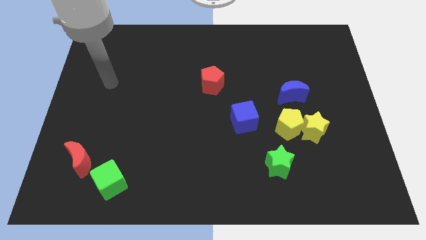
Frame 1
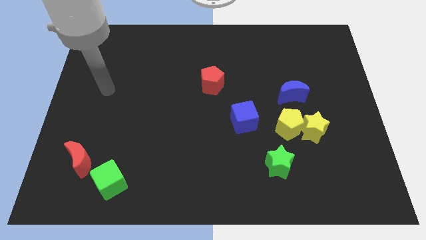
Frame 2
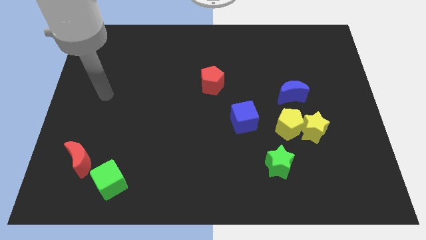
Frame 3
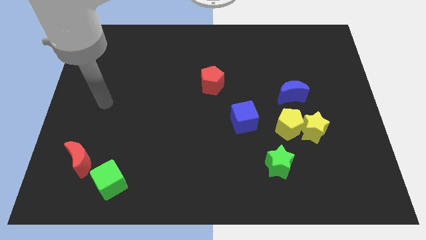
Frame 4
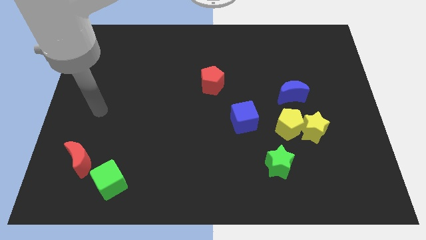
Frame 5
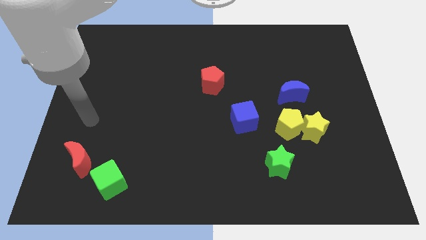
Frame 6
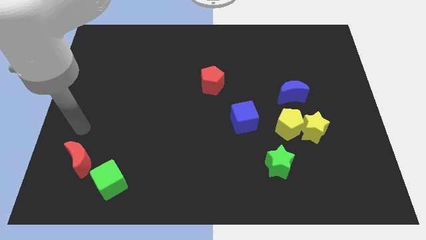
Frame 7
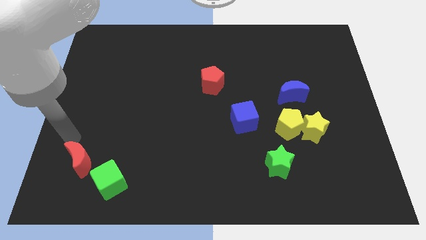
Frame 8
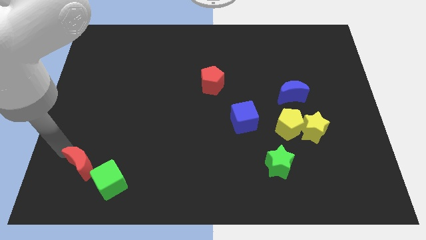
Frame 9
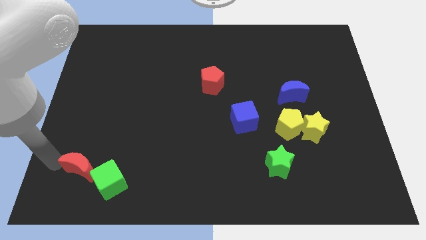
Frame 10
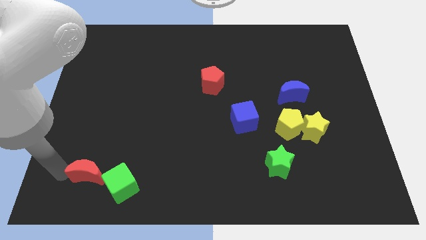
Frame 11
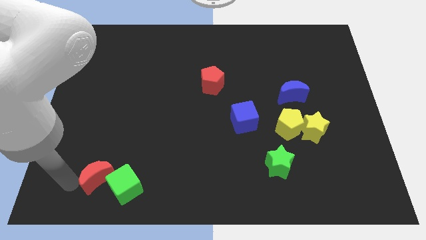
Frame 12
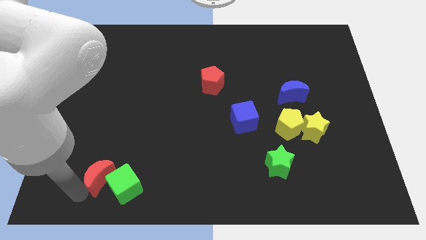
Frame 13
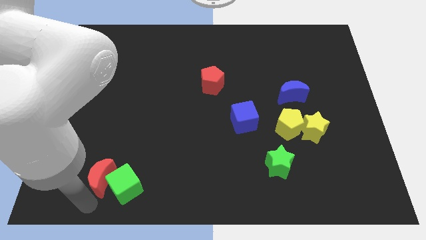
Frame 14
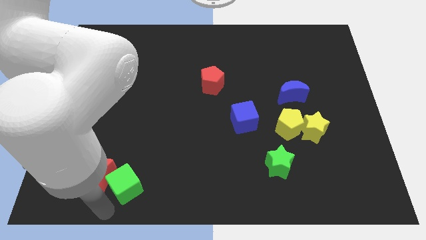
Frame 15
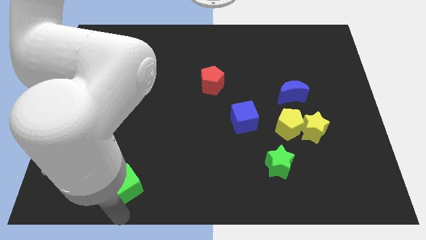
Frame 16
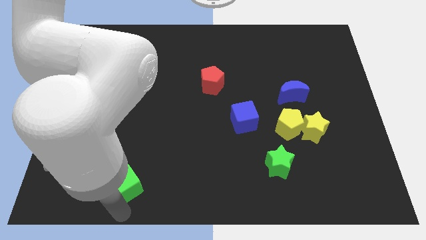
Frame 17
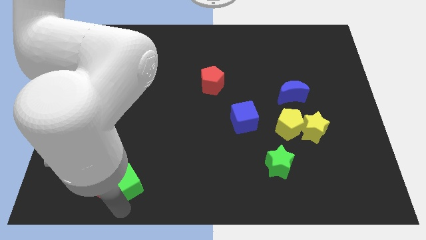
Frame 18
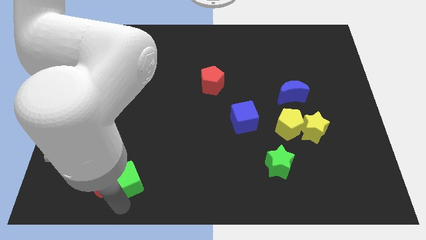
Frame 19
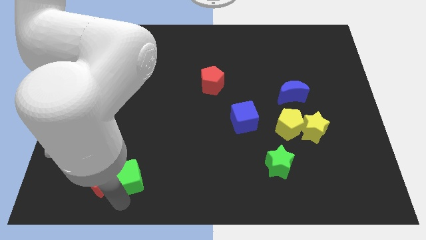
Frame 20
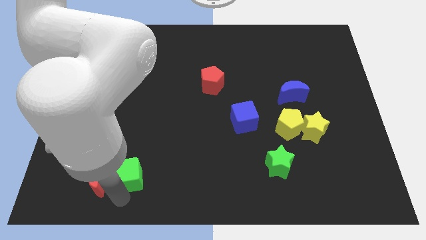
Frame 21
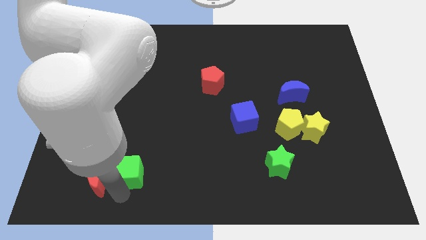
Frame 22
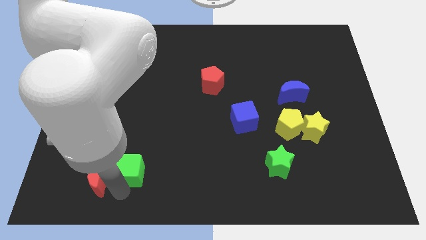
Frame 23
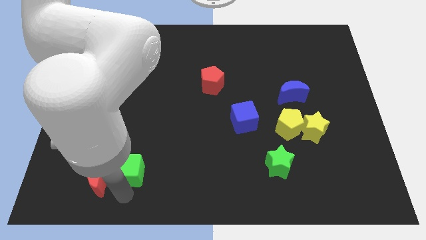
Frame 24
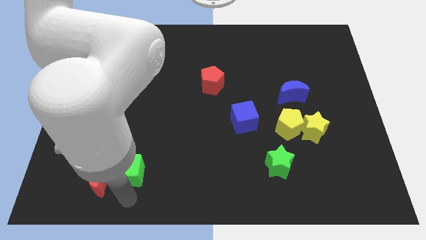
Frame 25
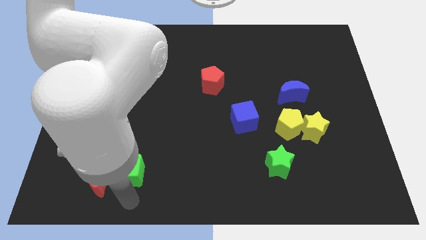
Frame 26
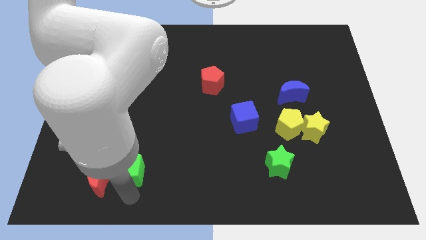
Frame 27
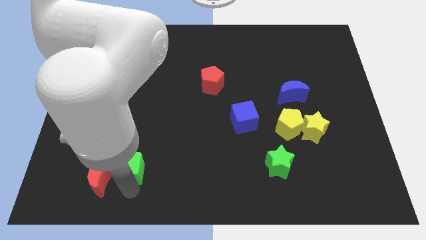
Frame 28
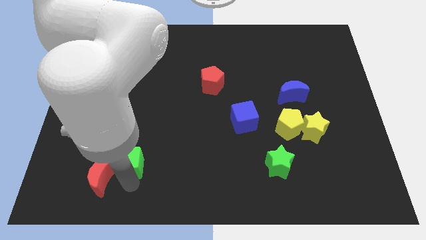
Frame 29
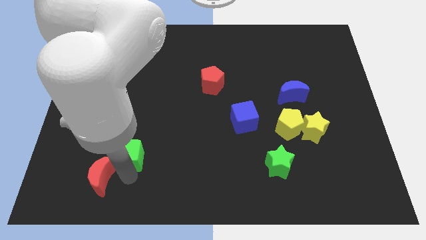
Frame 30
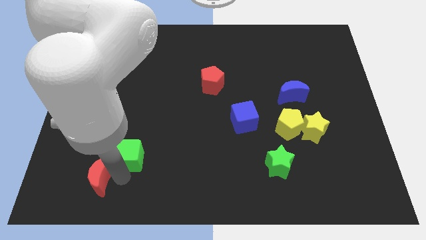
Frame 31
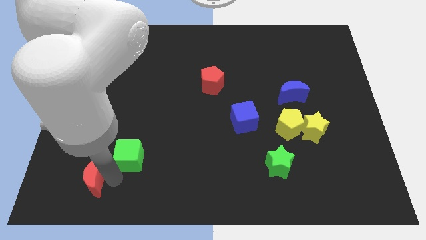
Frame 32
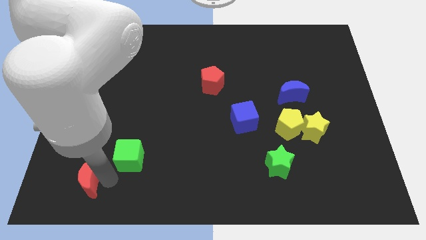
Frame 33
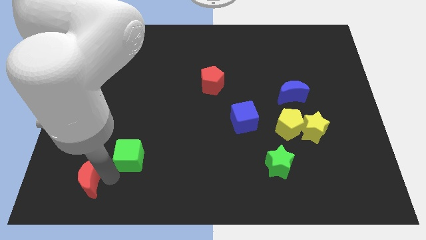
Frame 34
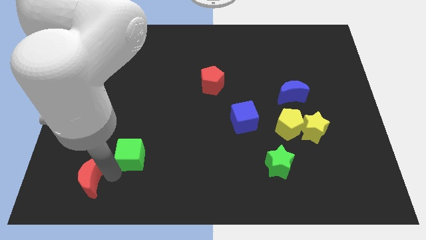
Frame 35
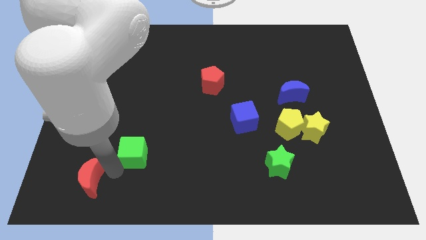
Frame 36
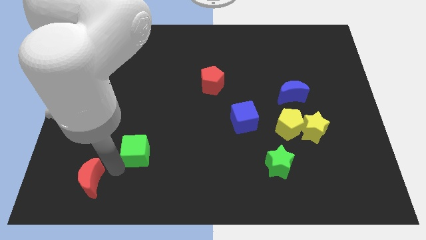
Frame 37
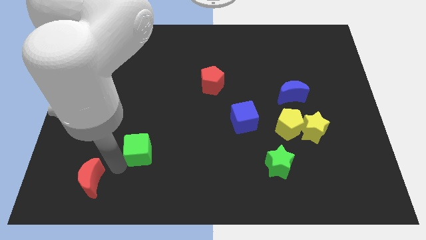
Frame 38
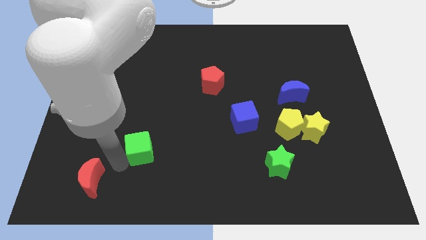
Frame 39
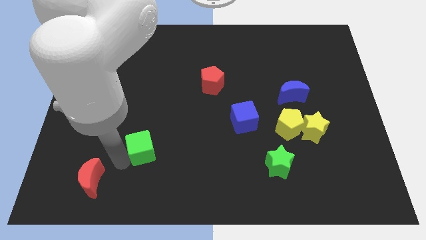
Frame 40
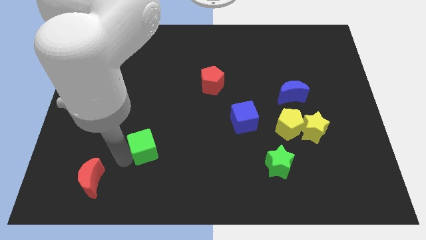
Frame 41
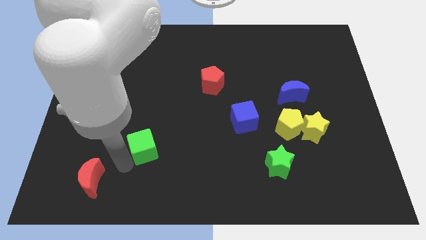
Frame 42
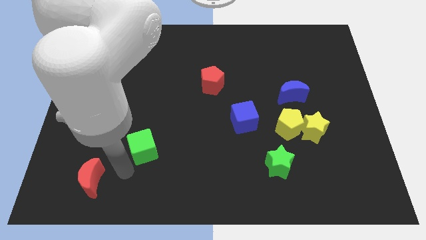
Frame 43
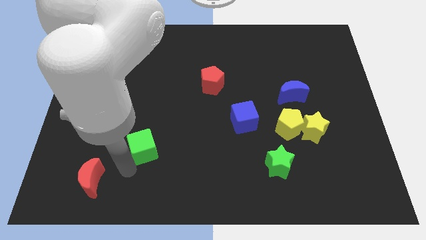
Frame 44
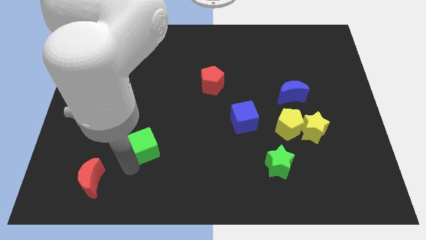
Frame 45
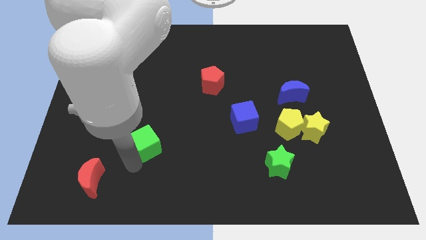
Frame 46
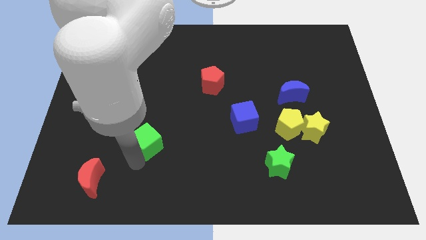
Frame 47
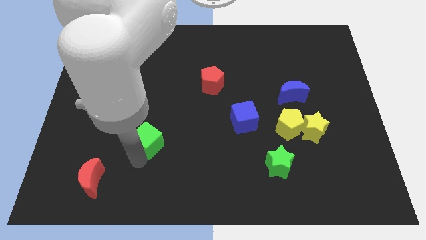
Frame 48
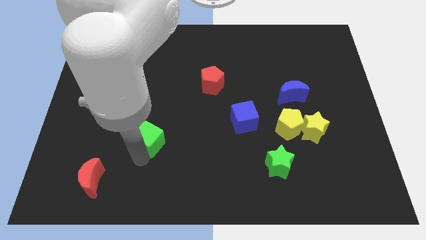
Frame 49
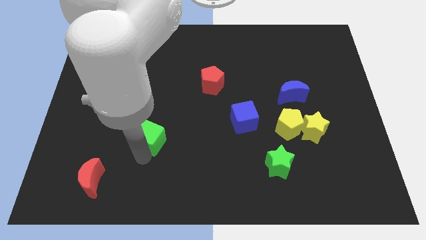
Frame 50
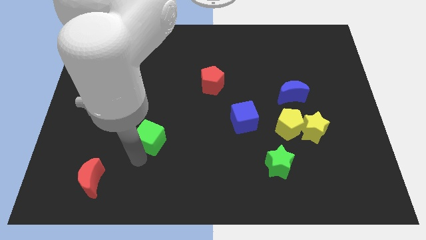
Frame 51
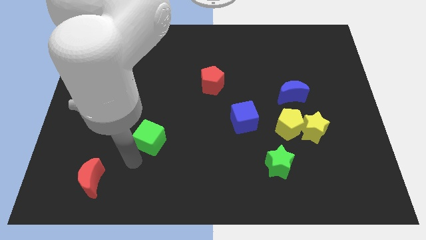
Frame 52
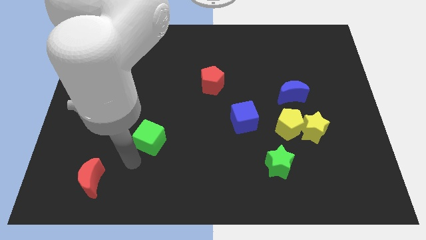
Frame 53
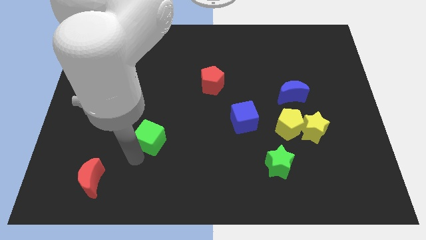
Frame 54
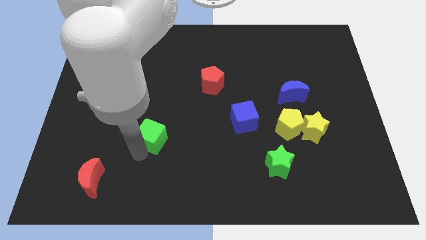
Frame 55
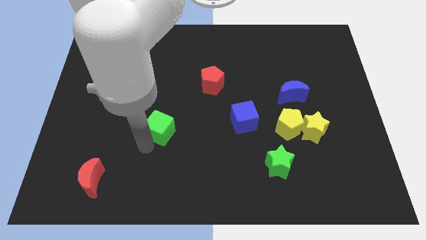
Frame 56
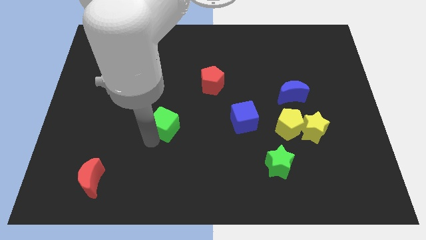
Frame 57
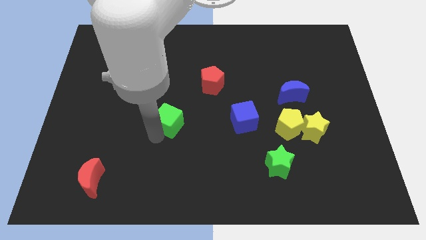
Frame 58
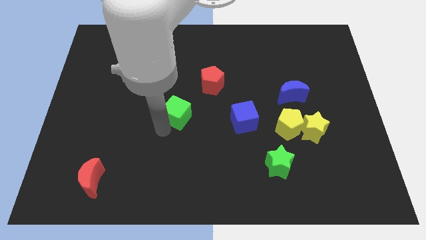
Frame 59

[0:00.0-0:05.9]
slide the green cube to the bottom left side of the red pentagon

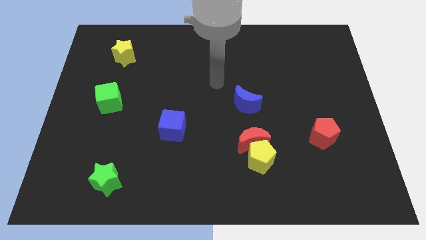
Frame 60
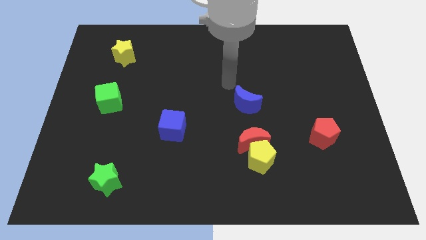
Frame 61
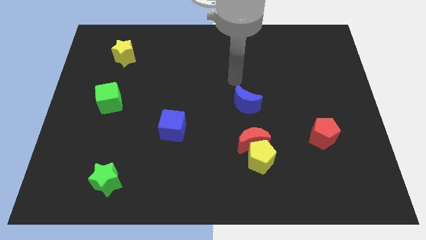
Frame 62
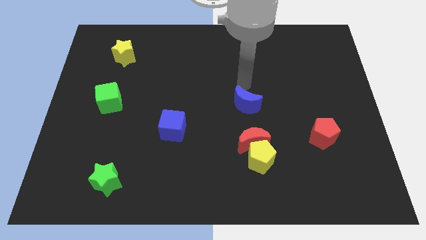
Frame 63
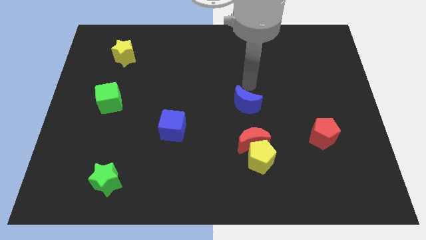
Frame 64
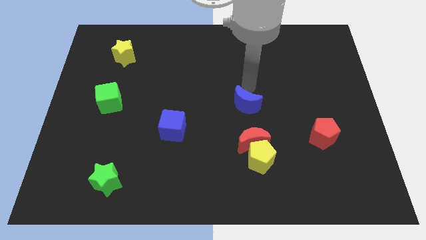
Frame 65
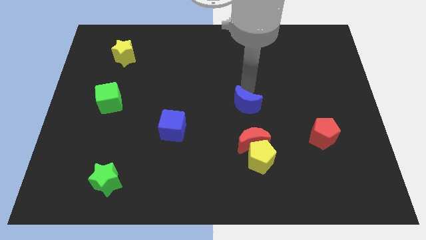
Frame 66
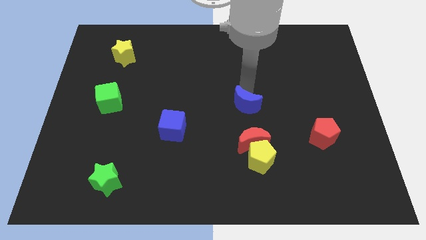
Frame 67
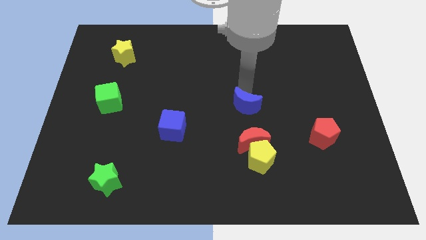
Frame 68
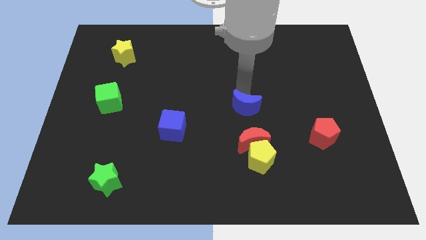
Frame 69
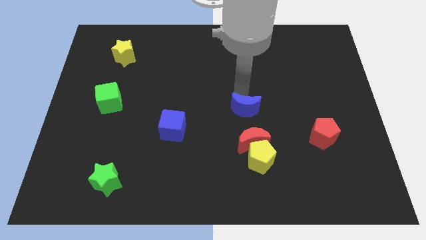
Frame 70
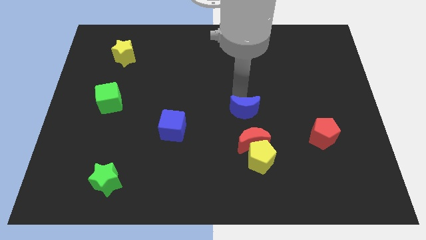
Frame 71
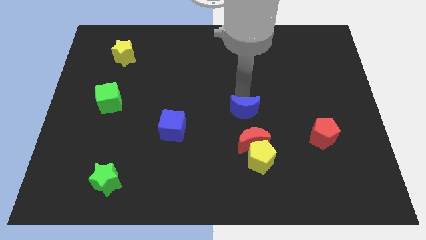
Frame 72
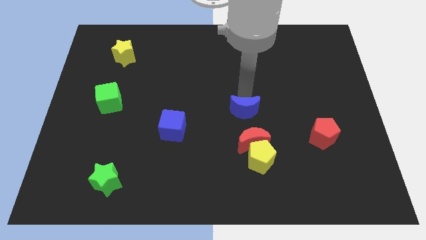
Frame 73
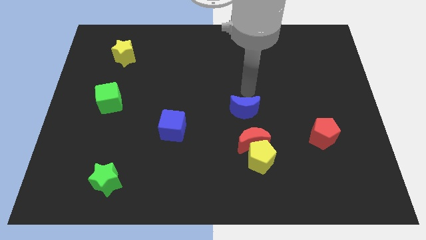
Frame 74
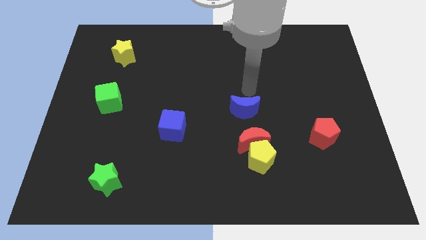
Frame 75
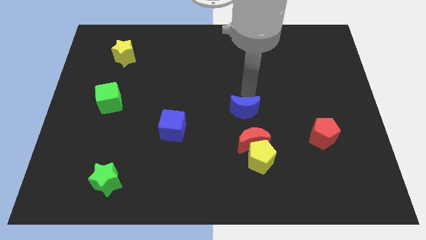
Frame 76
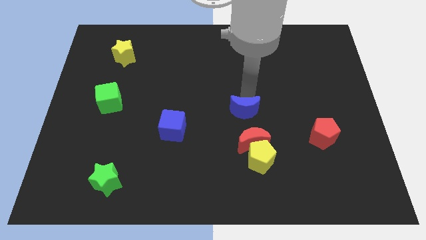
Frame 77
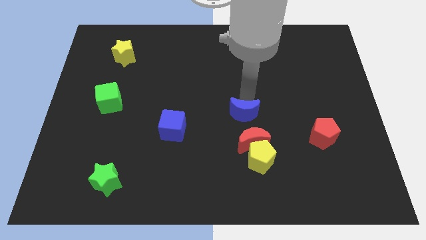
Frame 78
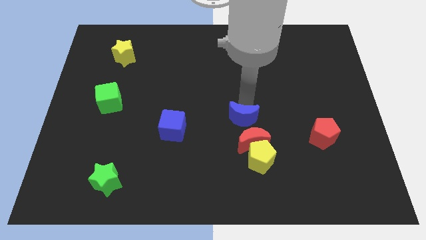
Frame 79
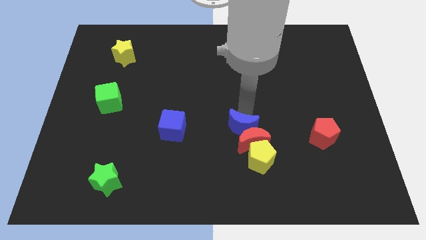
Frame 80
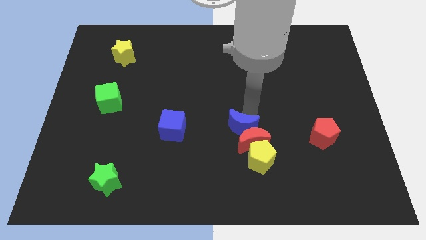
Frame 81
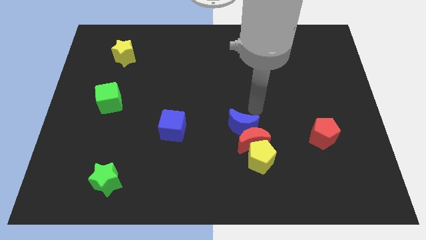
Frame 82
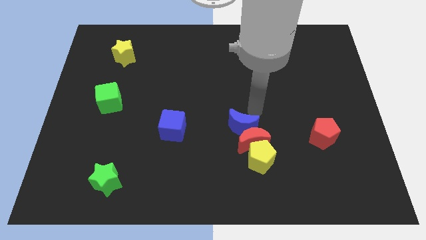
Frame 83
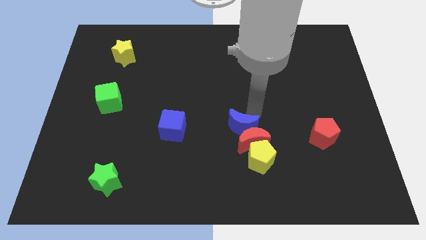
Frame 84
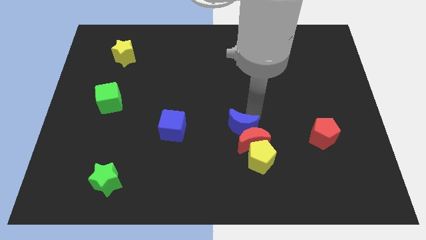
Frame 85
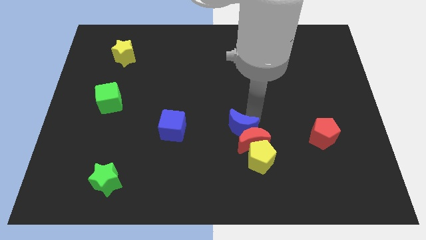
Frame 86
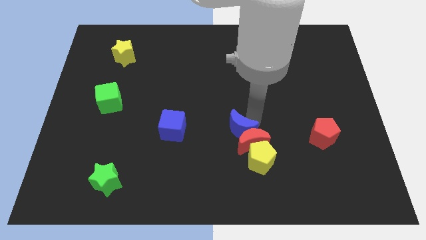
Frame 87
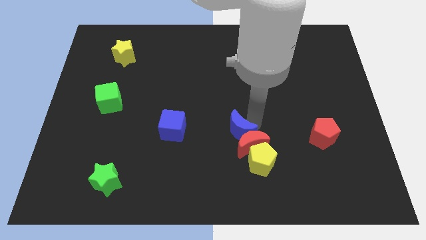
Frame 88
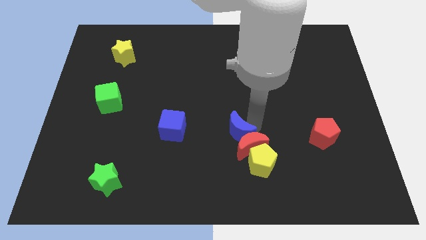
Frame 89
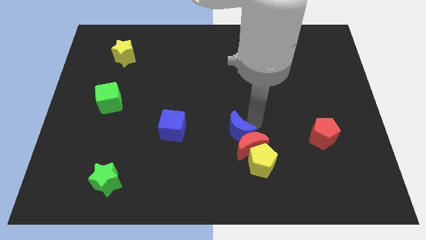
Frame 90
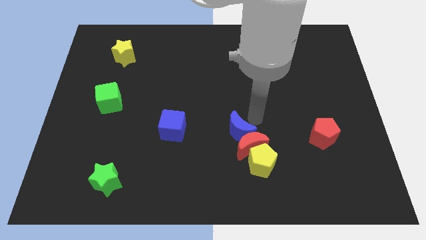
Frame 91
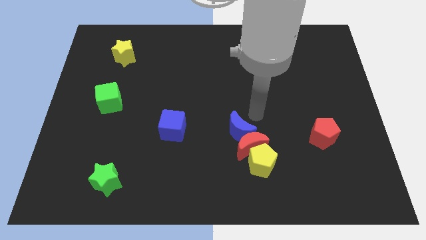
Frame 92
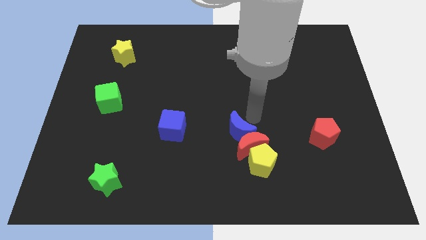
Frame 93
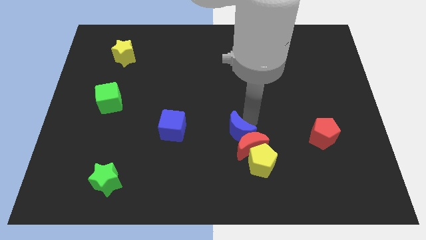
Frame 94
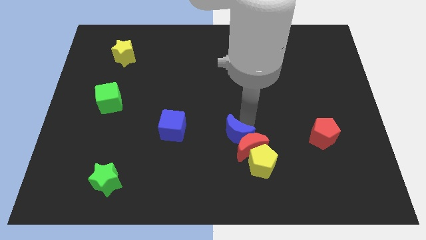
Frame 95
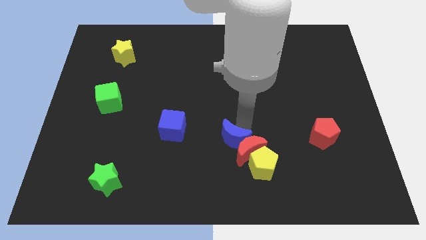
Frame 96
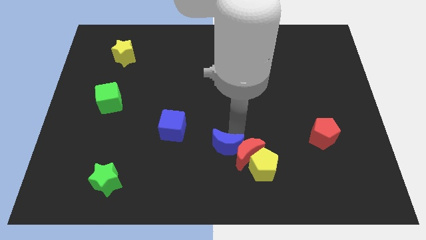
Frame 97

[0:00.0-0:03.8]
push the blue moon to the bottom left side of the red moon
